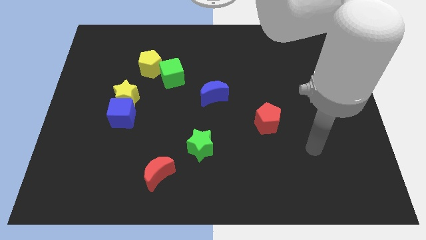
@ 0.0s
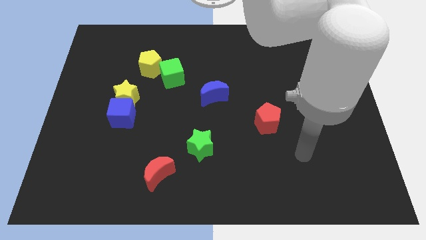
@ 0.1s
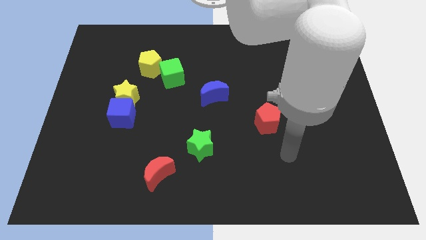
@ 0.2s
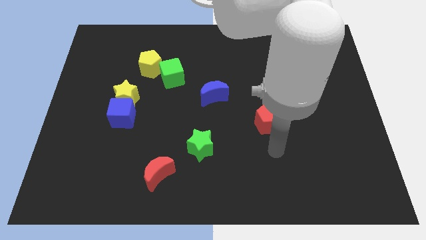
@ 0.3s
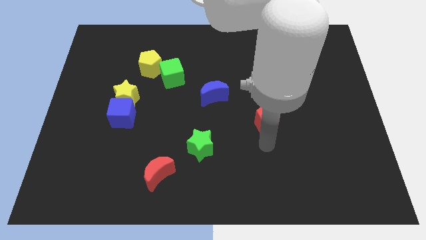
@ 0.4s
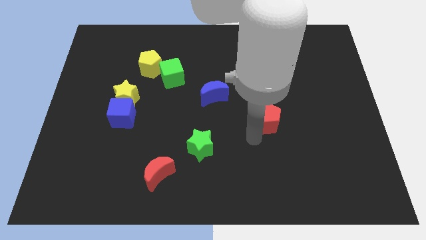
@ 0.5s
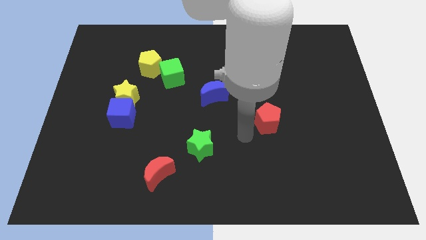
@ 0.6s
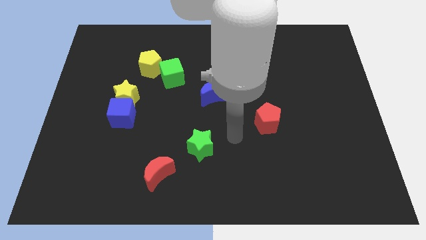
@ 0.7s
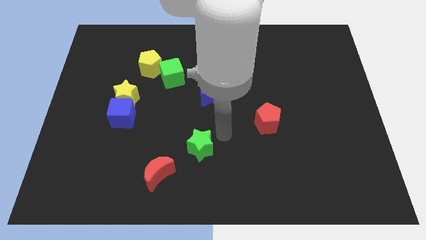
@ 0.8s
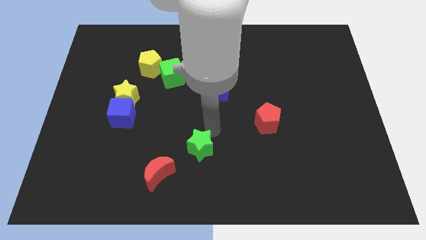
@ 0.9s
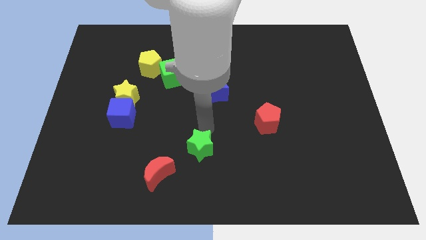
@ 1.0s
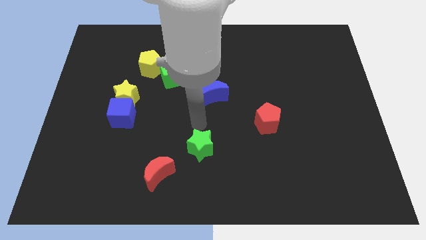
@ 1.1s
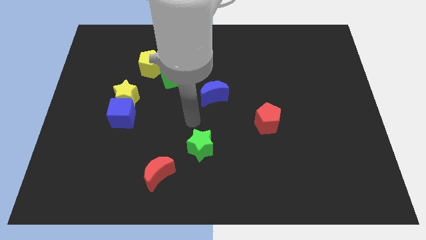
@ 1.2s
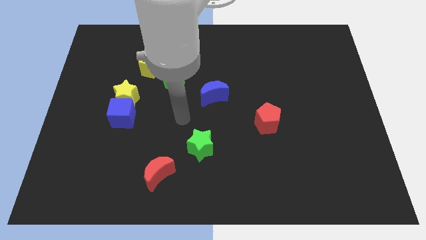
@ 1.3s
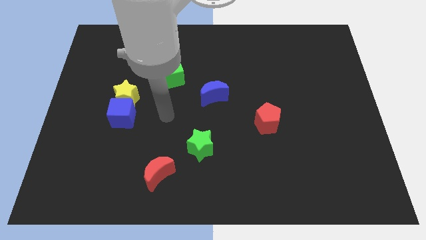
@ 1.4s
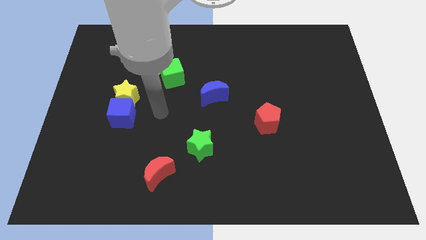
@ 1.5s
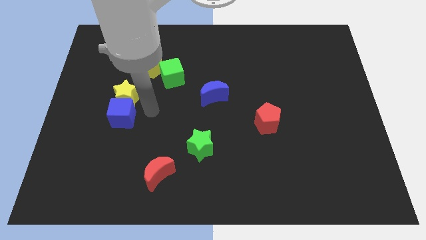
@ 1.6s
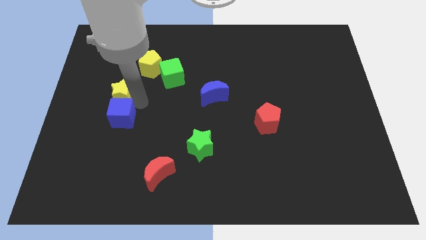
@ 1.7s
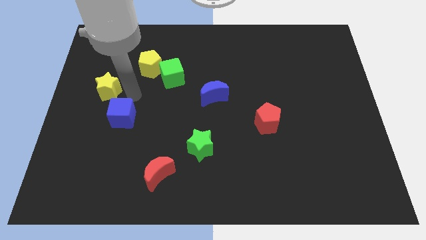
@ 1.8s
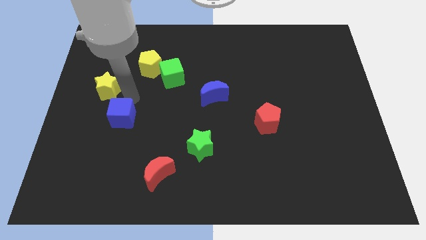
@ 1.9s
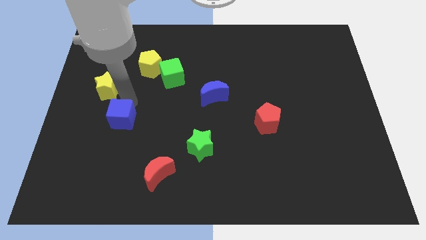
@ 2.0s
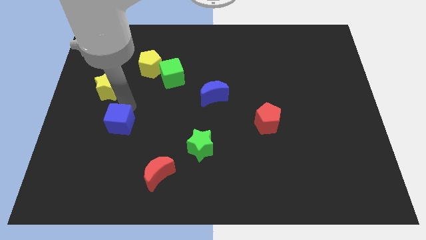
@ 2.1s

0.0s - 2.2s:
separate the blue cube from the yellow star

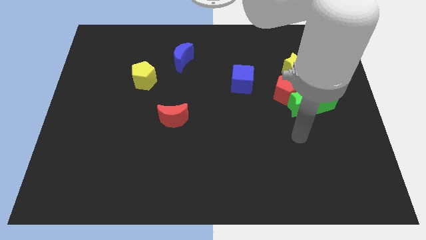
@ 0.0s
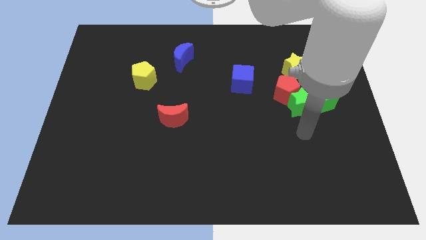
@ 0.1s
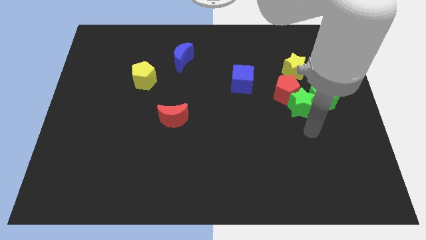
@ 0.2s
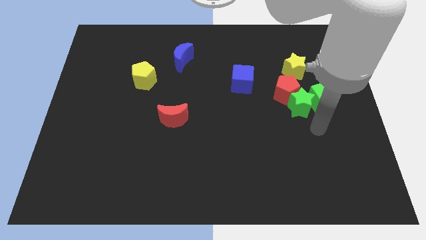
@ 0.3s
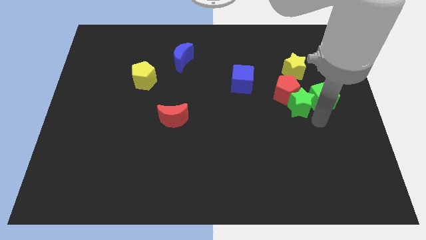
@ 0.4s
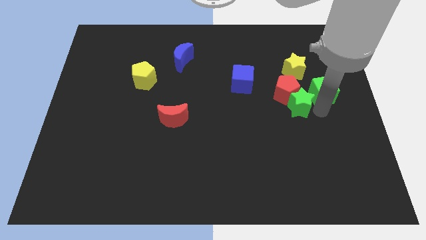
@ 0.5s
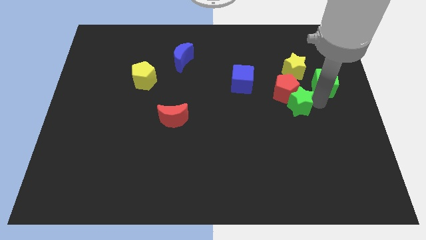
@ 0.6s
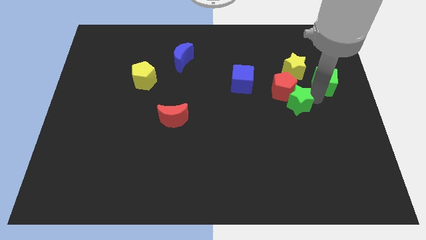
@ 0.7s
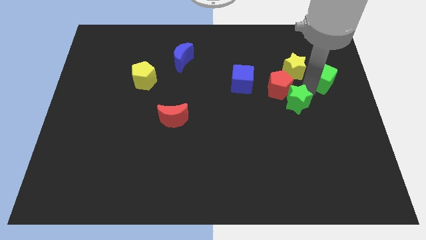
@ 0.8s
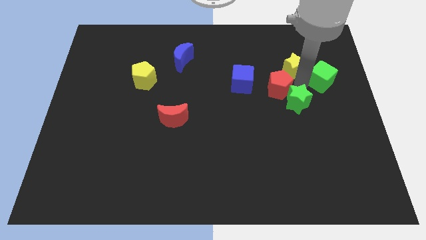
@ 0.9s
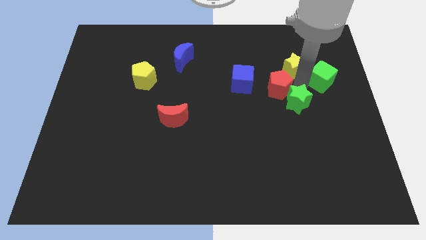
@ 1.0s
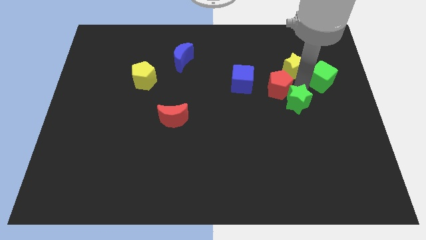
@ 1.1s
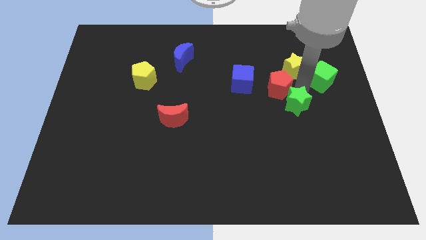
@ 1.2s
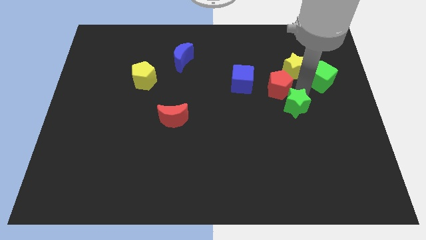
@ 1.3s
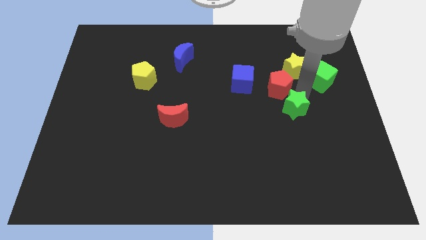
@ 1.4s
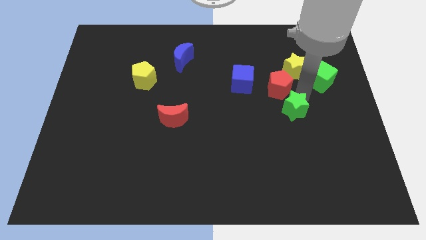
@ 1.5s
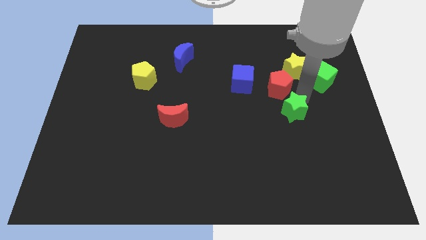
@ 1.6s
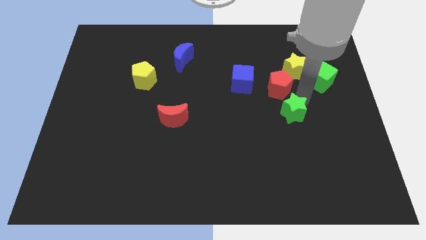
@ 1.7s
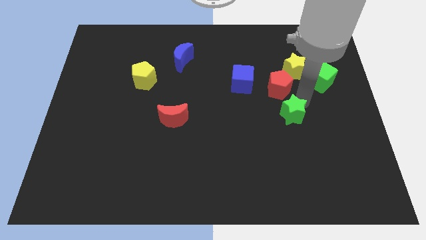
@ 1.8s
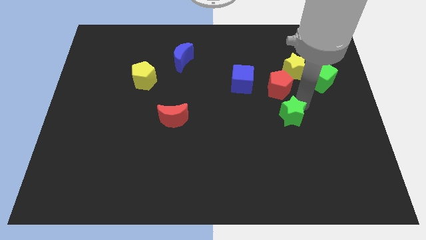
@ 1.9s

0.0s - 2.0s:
move the green star away from the red pentagon and green cube

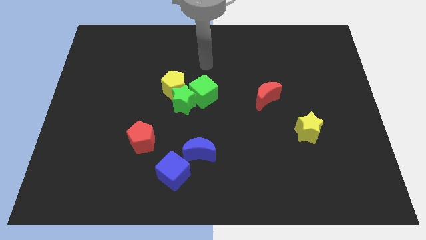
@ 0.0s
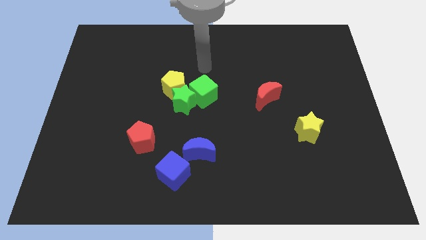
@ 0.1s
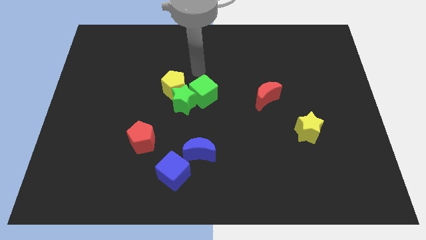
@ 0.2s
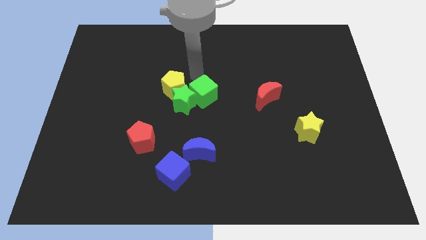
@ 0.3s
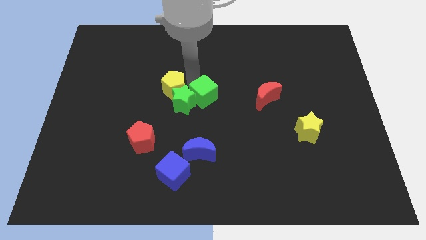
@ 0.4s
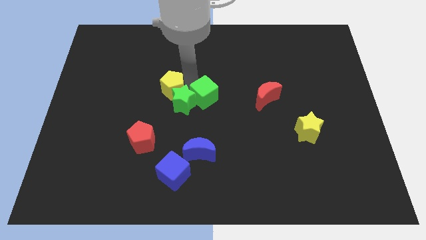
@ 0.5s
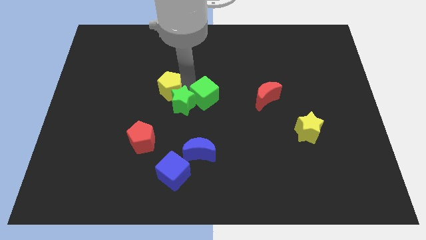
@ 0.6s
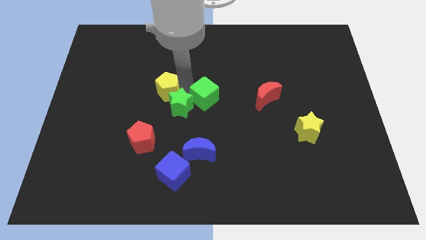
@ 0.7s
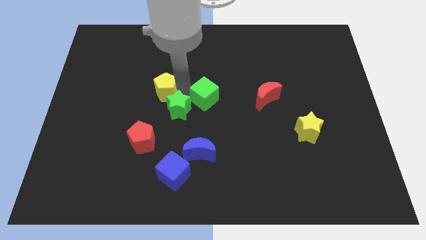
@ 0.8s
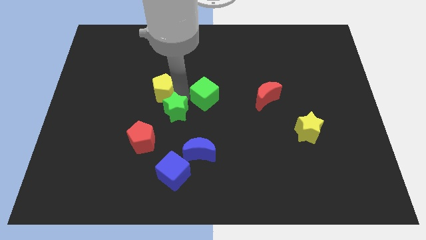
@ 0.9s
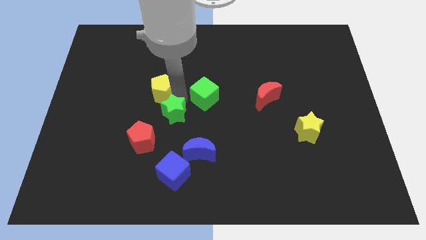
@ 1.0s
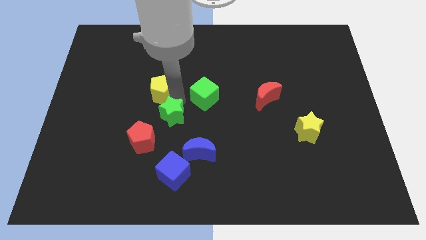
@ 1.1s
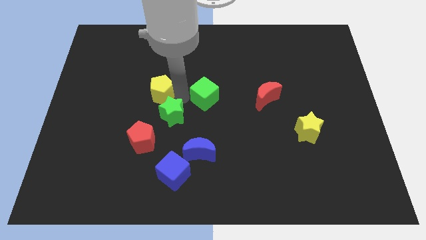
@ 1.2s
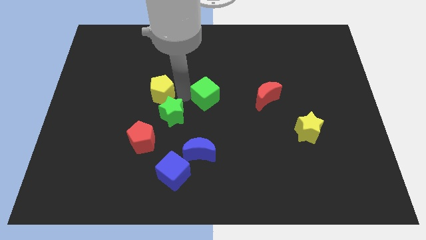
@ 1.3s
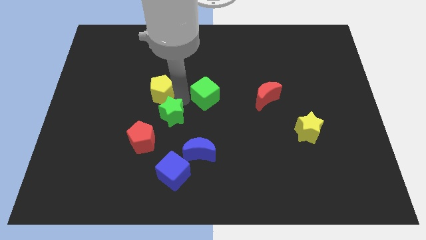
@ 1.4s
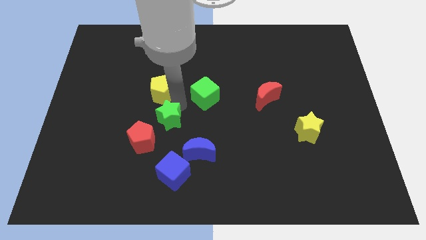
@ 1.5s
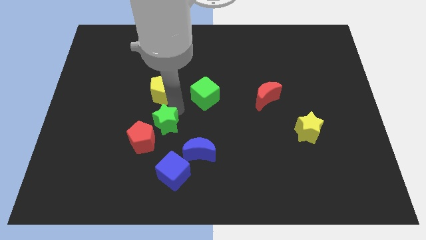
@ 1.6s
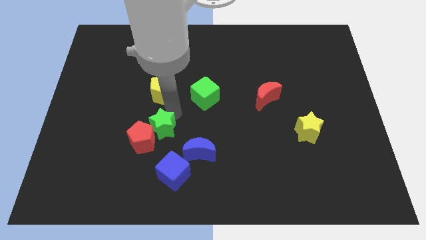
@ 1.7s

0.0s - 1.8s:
move the green star away from the yellow pentagon and green cube

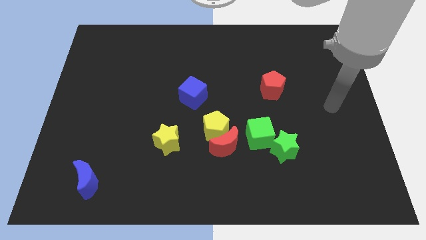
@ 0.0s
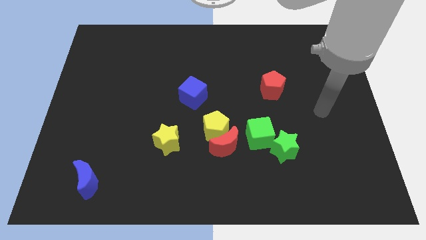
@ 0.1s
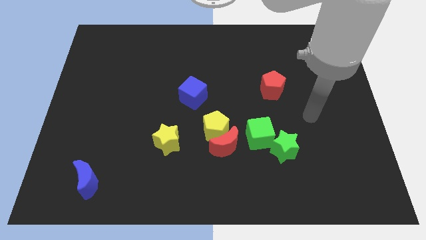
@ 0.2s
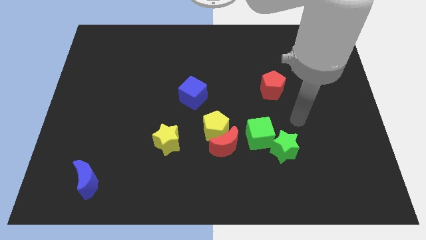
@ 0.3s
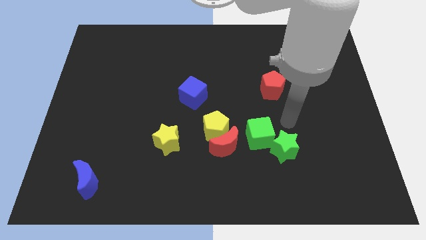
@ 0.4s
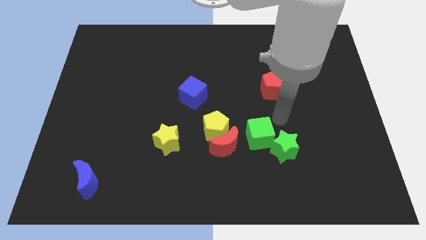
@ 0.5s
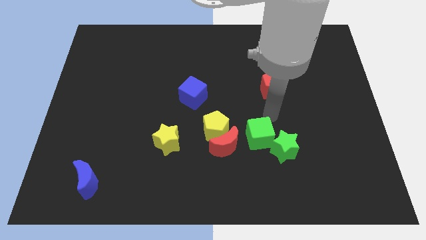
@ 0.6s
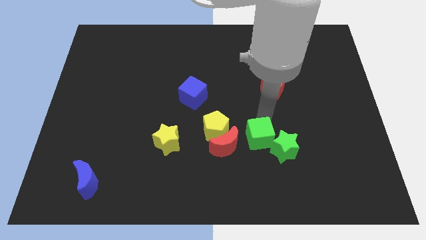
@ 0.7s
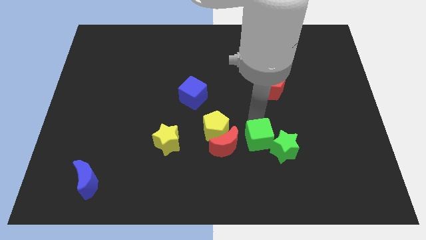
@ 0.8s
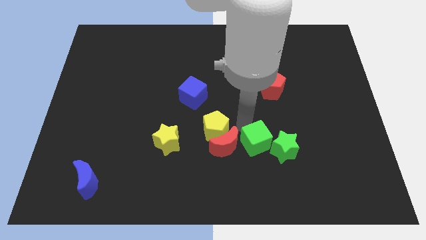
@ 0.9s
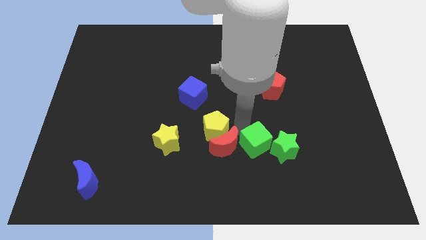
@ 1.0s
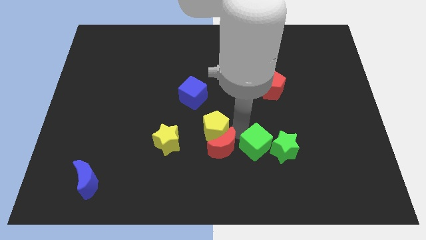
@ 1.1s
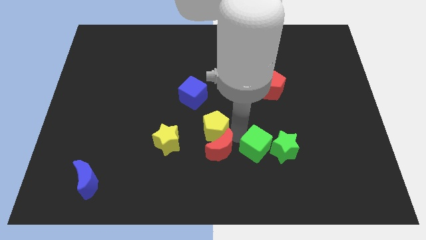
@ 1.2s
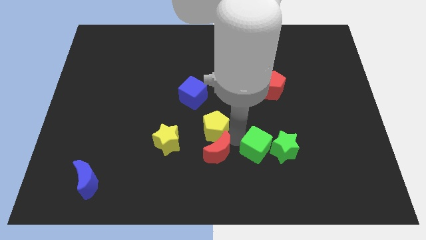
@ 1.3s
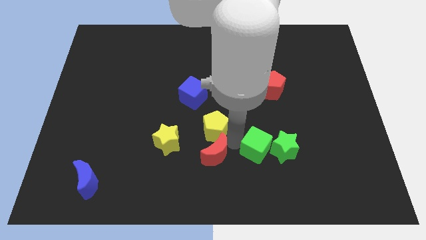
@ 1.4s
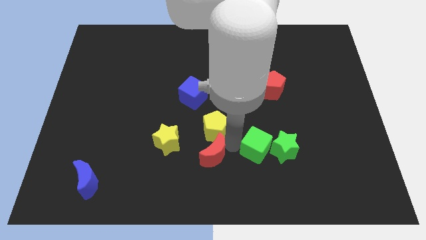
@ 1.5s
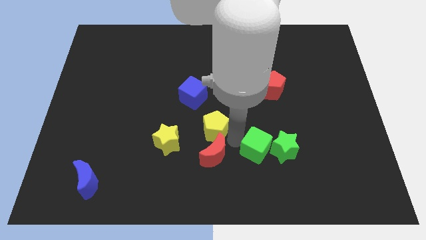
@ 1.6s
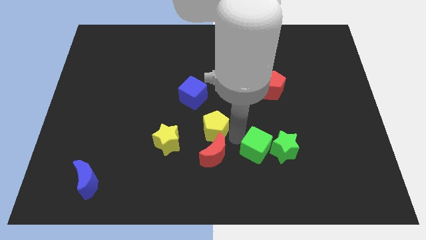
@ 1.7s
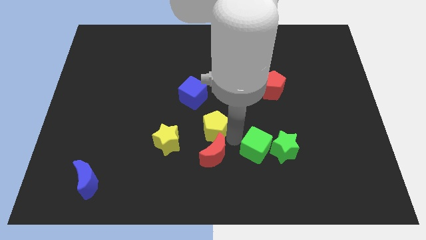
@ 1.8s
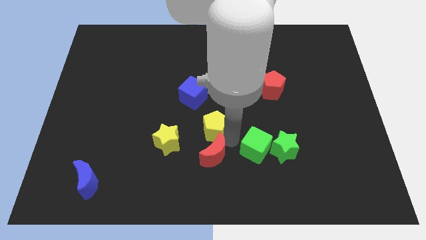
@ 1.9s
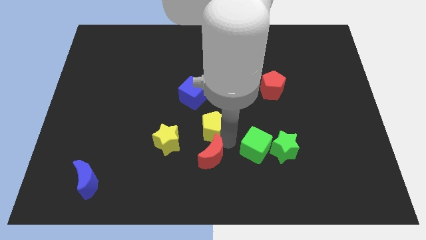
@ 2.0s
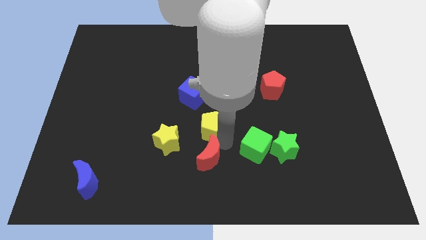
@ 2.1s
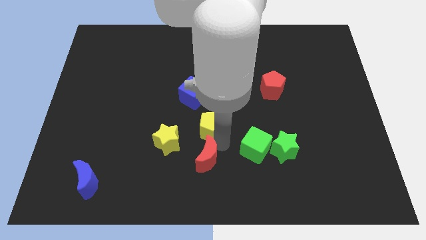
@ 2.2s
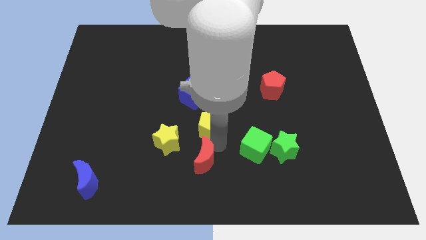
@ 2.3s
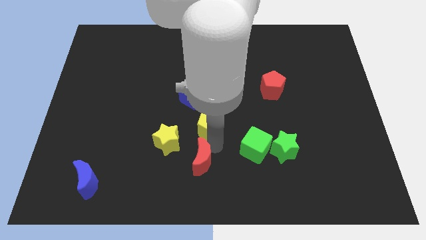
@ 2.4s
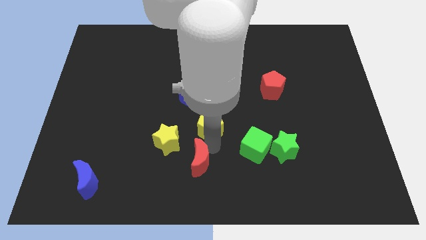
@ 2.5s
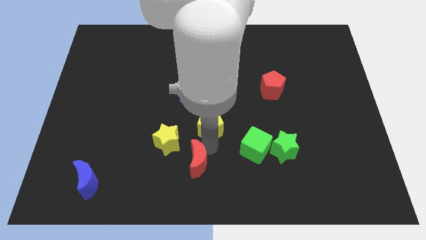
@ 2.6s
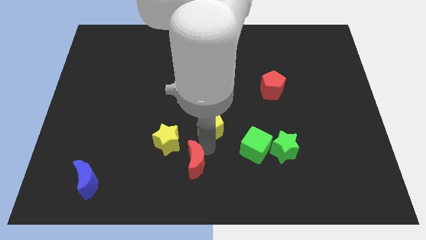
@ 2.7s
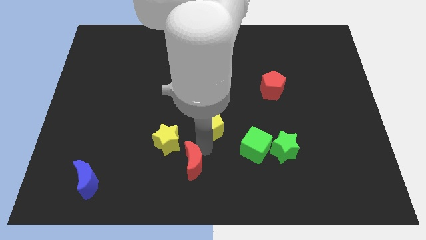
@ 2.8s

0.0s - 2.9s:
separate the red moon from the yellow pentagon and green cube

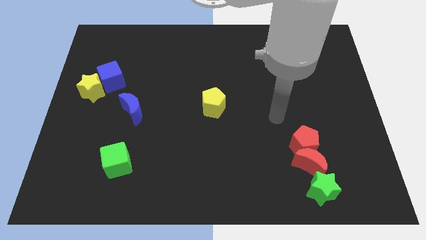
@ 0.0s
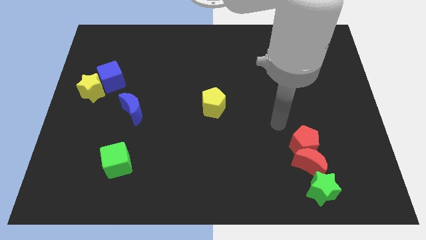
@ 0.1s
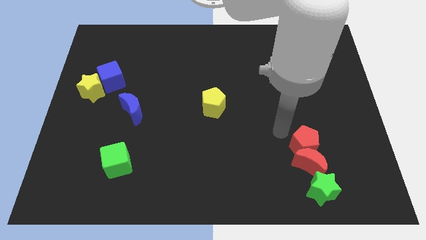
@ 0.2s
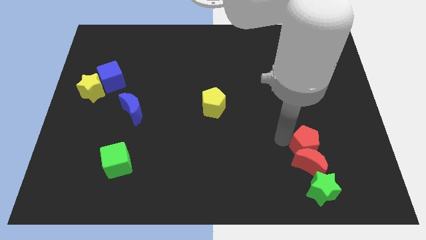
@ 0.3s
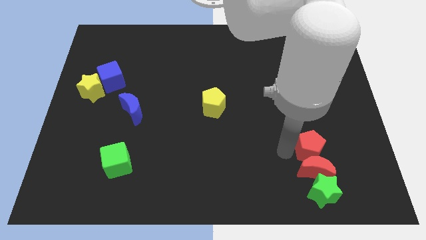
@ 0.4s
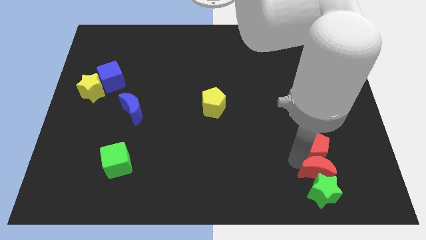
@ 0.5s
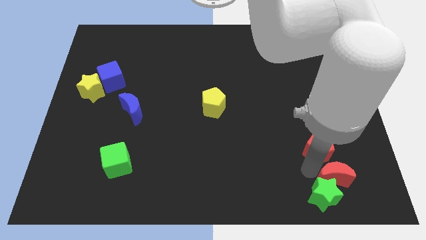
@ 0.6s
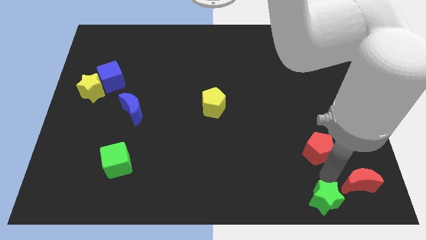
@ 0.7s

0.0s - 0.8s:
move the red pentagon away from the red moon
